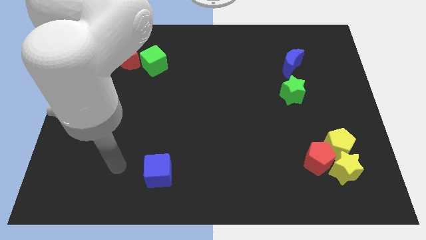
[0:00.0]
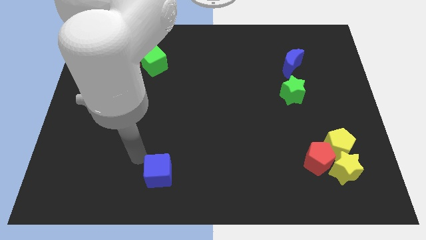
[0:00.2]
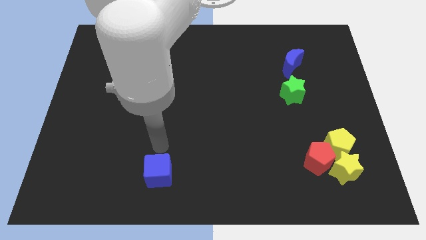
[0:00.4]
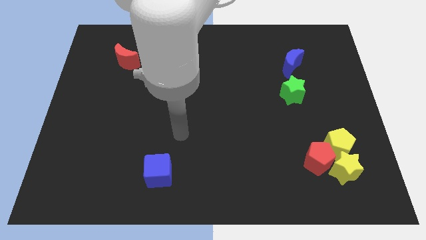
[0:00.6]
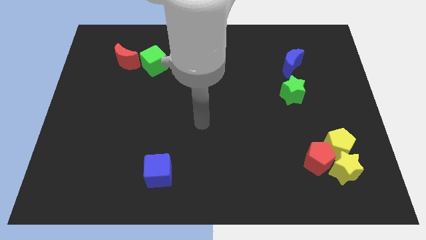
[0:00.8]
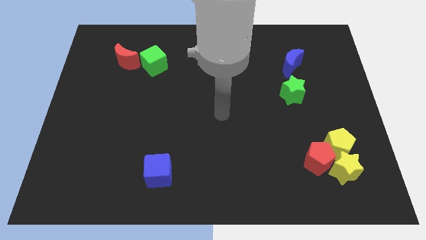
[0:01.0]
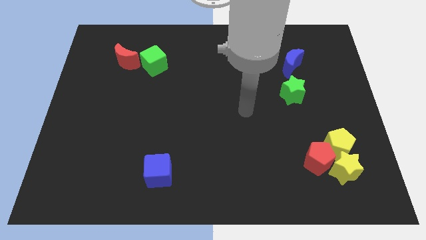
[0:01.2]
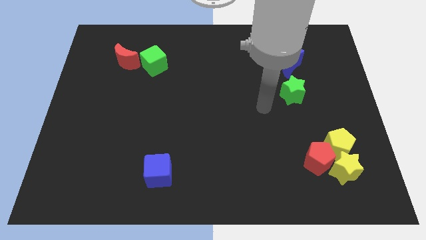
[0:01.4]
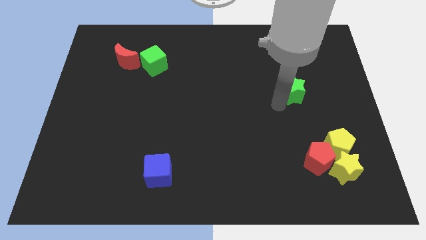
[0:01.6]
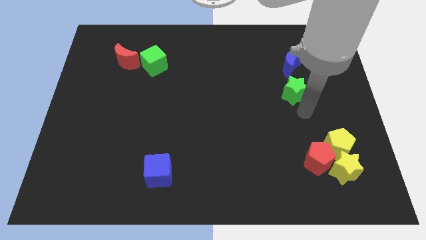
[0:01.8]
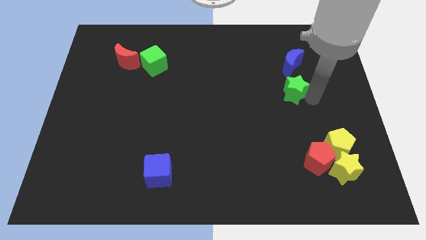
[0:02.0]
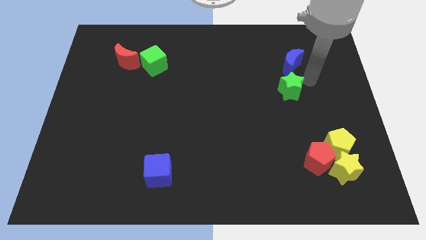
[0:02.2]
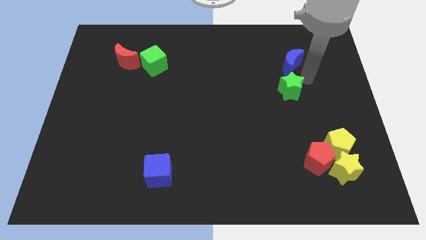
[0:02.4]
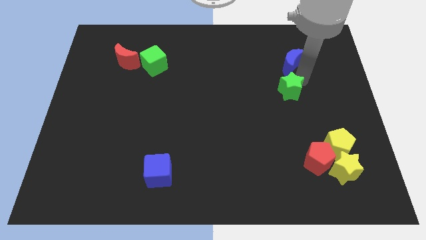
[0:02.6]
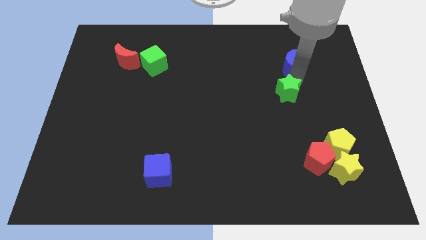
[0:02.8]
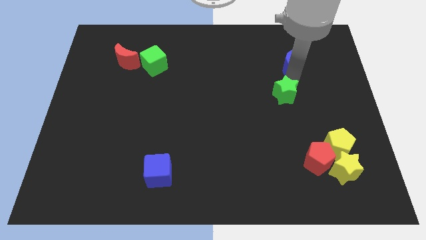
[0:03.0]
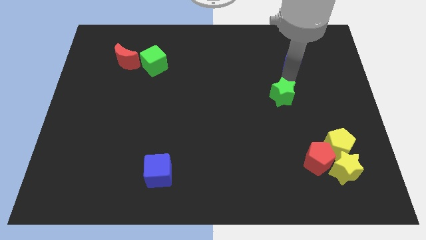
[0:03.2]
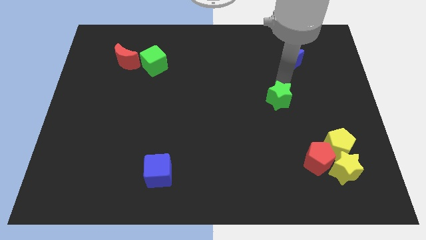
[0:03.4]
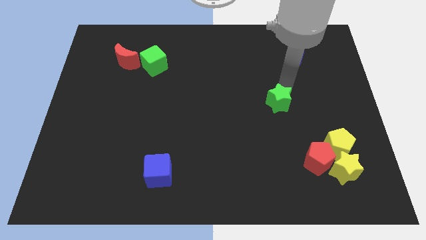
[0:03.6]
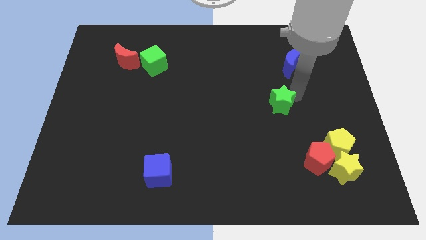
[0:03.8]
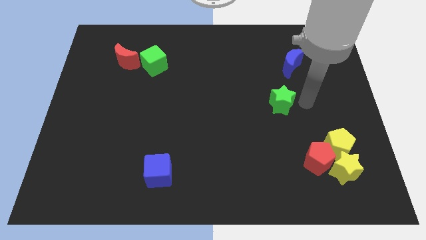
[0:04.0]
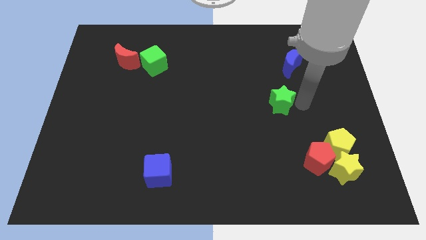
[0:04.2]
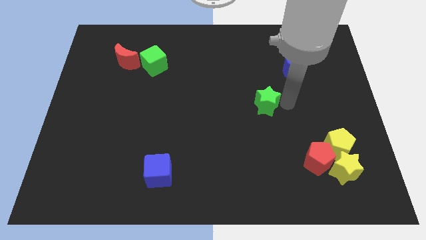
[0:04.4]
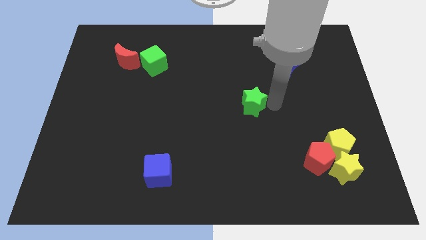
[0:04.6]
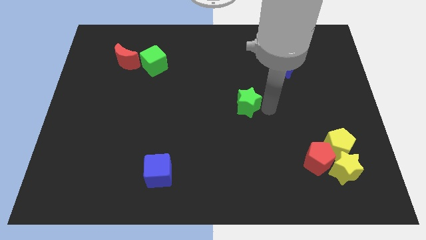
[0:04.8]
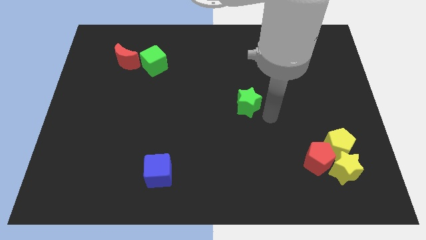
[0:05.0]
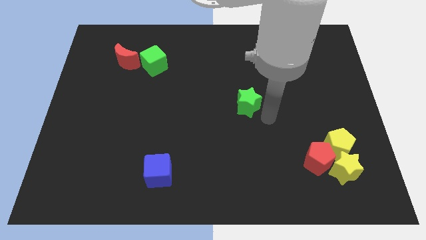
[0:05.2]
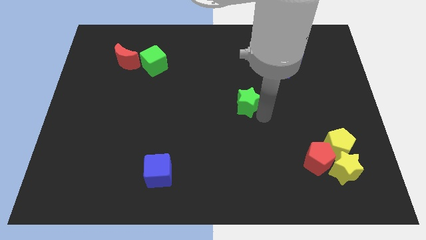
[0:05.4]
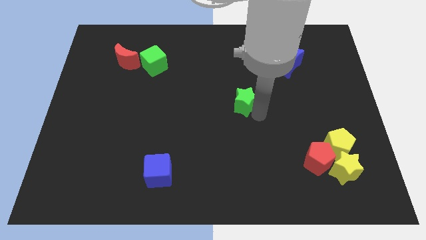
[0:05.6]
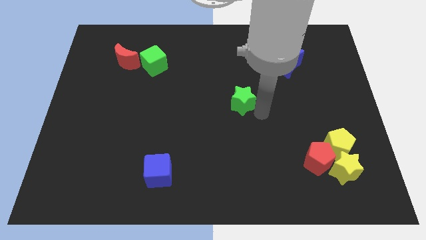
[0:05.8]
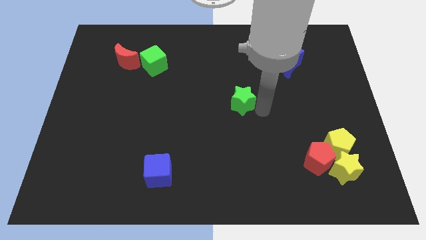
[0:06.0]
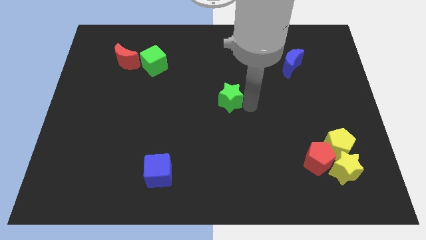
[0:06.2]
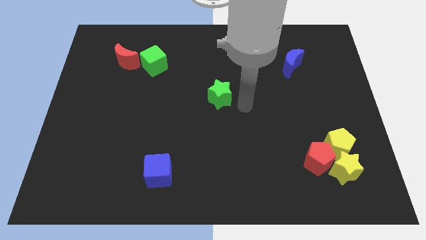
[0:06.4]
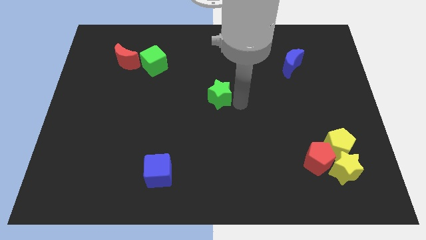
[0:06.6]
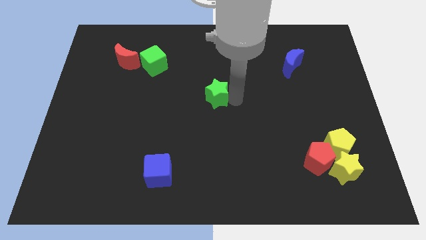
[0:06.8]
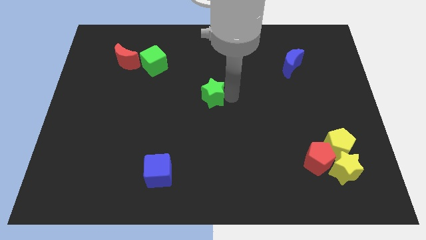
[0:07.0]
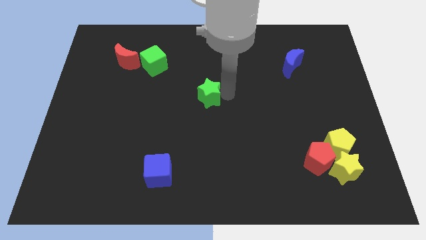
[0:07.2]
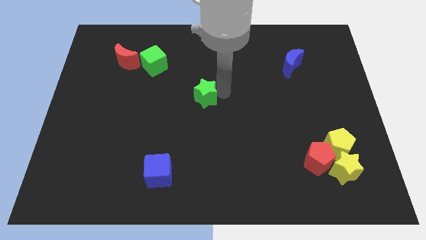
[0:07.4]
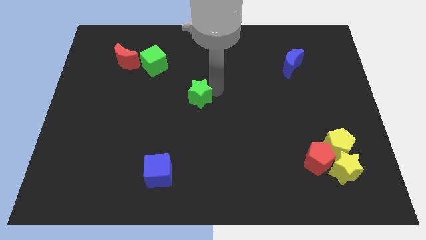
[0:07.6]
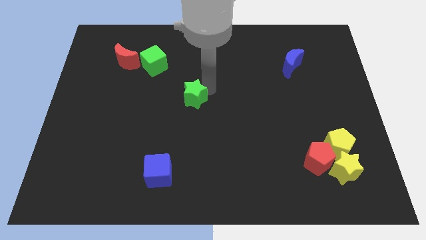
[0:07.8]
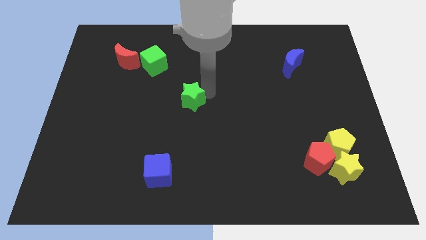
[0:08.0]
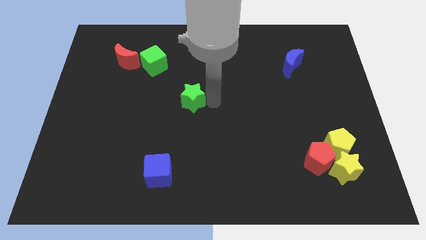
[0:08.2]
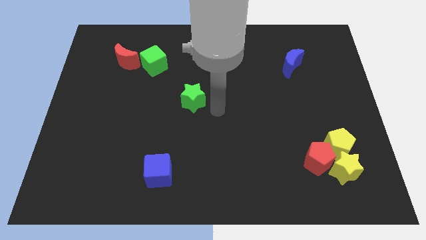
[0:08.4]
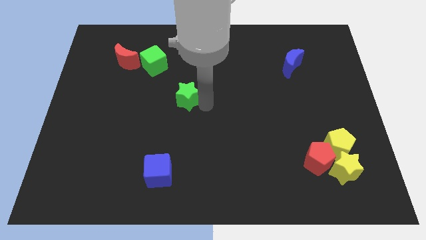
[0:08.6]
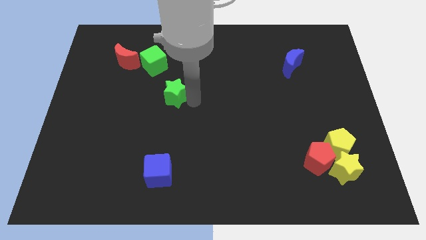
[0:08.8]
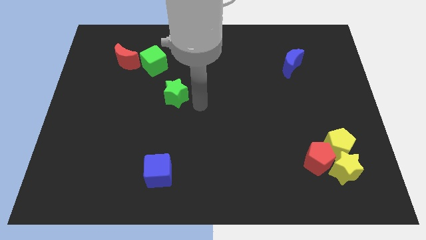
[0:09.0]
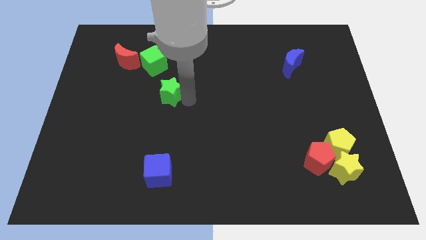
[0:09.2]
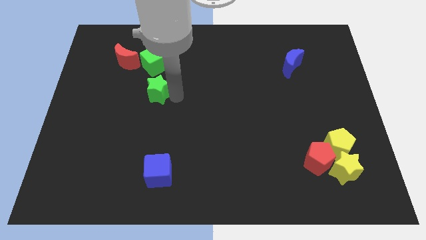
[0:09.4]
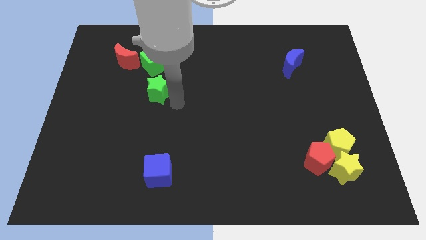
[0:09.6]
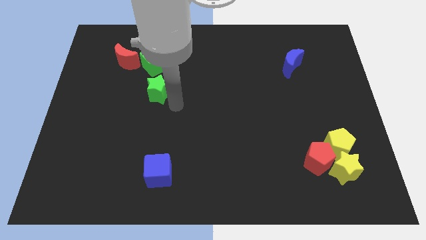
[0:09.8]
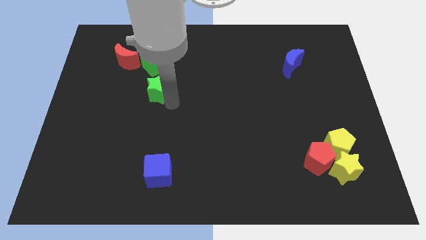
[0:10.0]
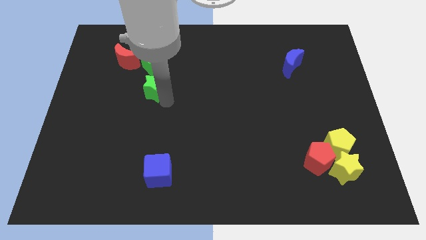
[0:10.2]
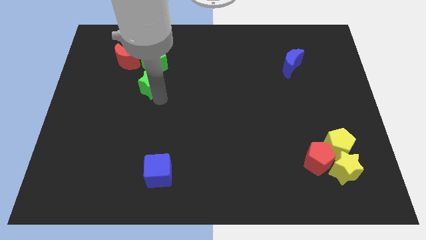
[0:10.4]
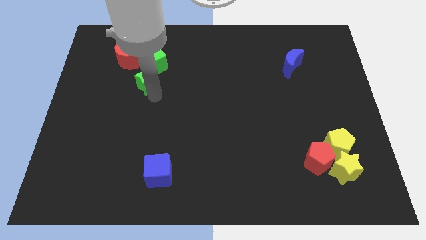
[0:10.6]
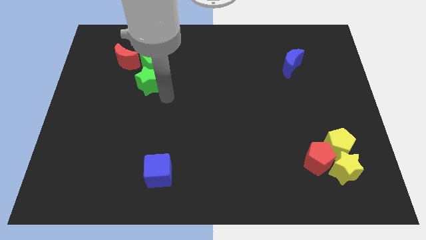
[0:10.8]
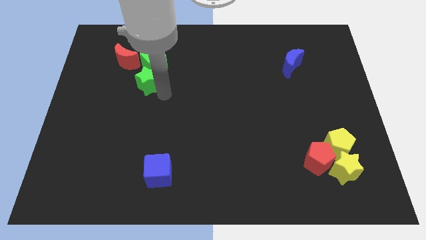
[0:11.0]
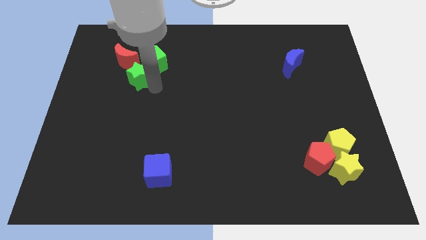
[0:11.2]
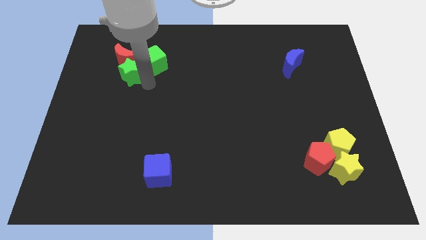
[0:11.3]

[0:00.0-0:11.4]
put the green star towards the red moon

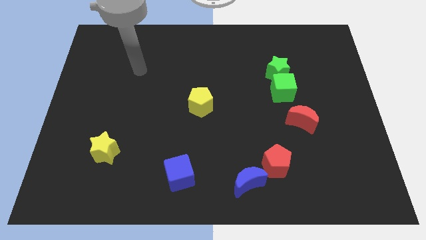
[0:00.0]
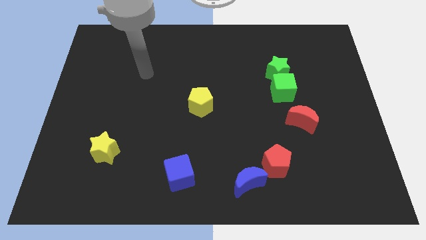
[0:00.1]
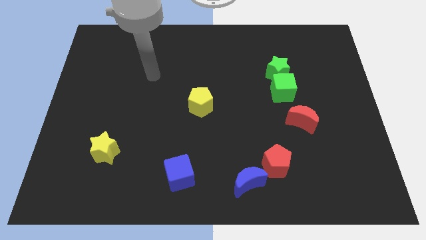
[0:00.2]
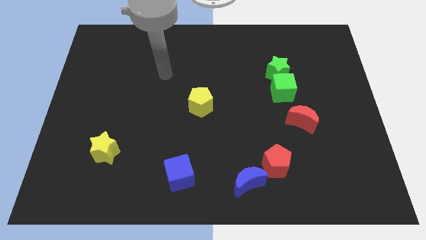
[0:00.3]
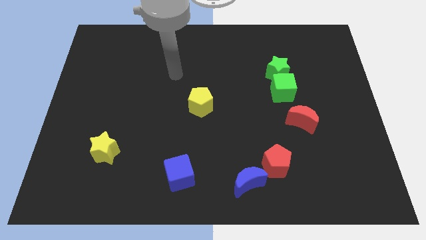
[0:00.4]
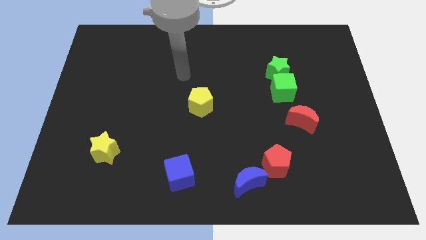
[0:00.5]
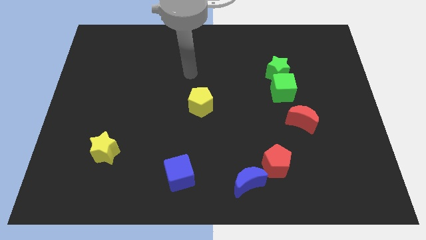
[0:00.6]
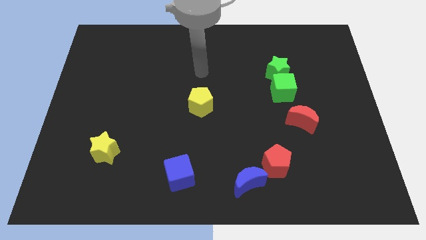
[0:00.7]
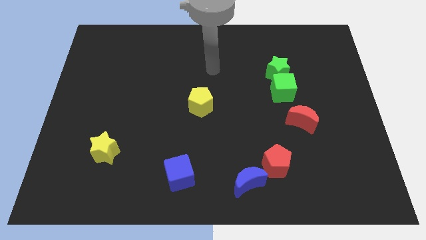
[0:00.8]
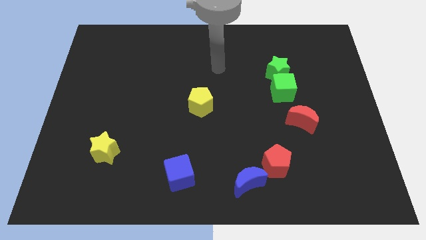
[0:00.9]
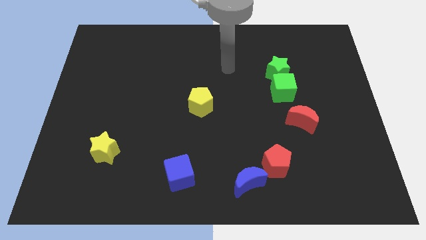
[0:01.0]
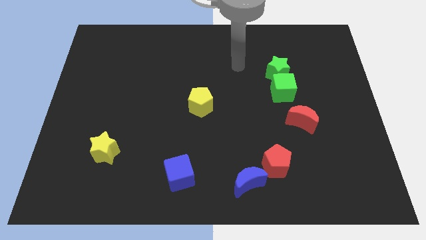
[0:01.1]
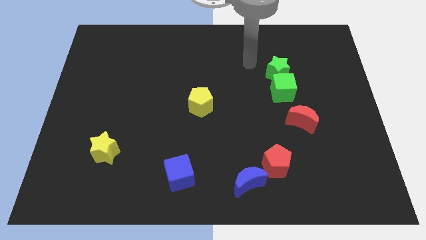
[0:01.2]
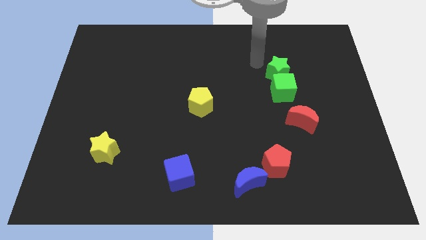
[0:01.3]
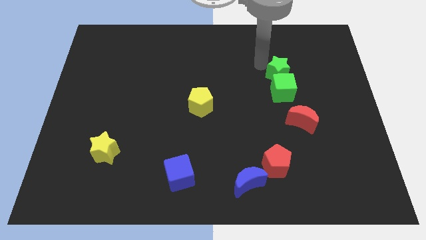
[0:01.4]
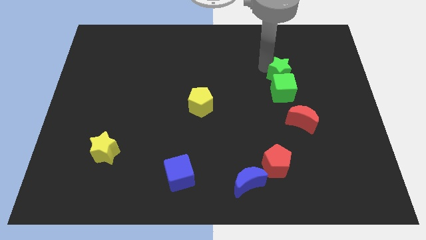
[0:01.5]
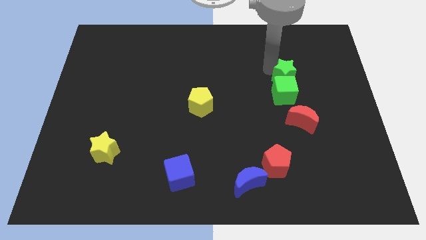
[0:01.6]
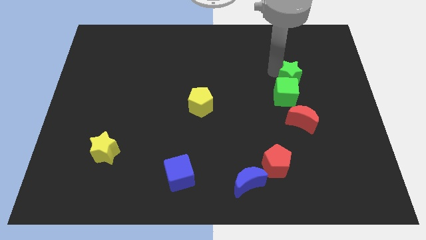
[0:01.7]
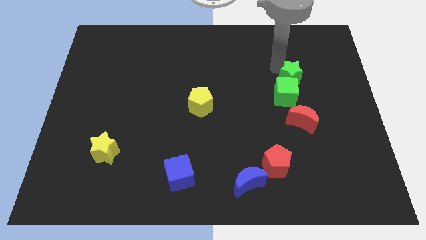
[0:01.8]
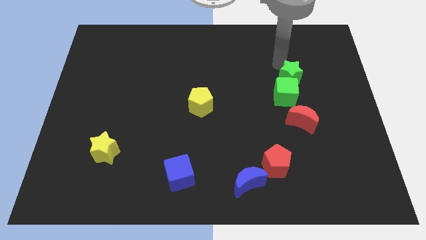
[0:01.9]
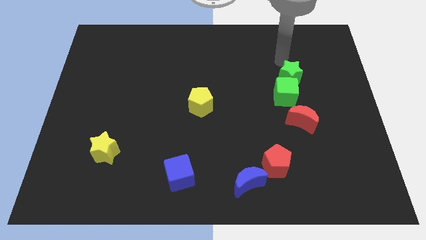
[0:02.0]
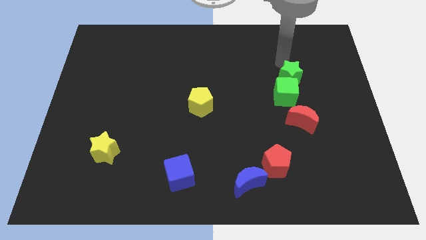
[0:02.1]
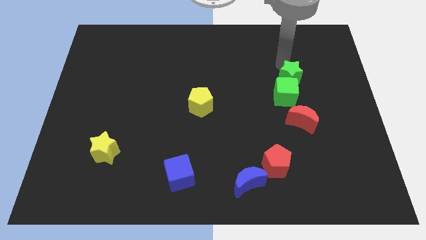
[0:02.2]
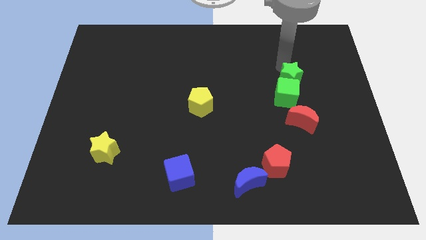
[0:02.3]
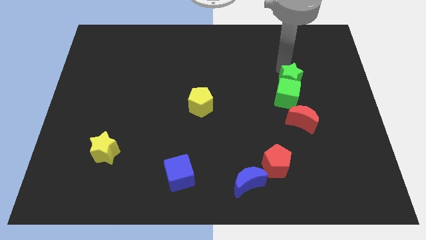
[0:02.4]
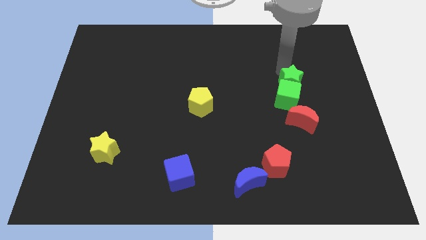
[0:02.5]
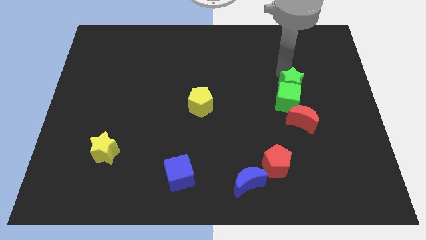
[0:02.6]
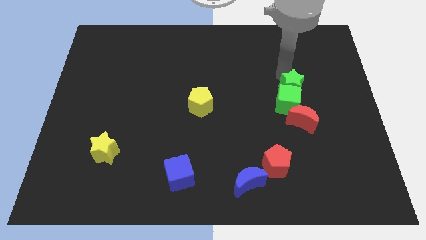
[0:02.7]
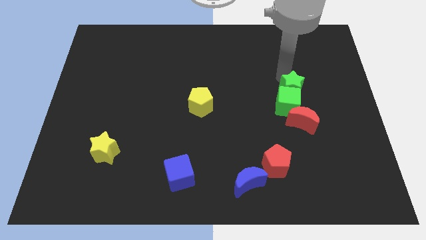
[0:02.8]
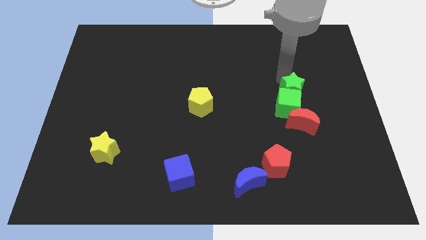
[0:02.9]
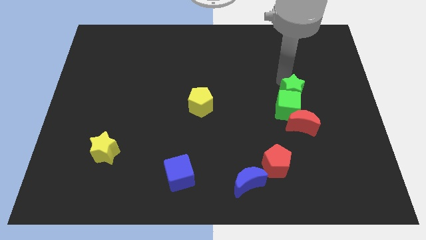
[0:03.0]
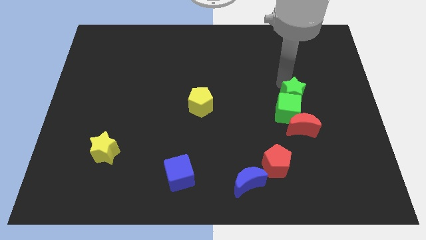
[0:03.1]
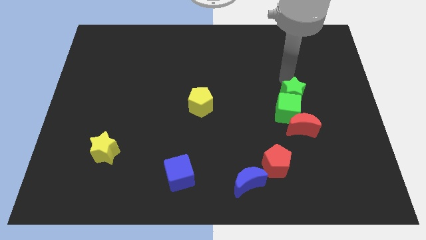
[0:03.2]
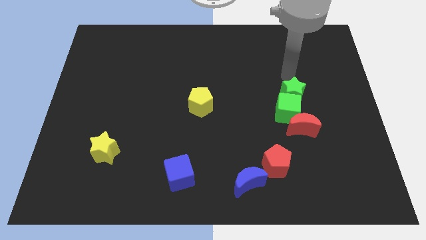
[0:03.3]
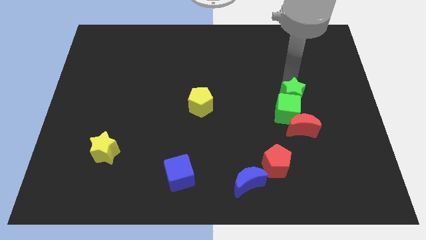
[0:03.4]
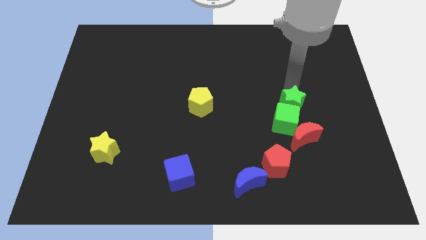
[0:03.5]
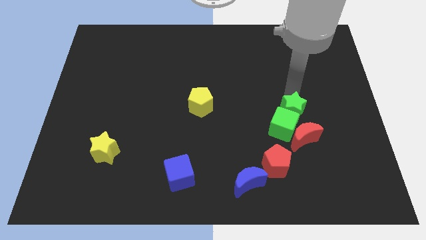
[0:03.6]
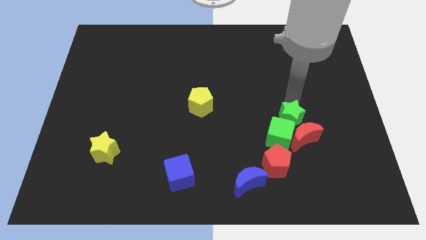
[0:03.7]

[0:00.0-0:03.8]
move the green star close to the red moon
